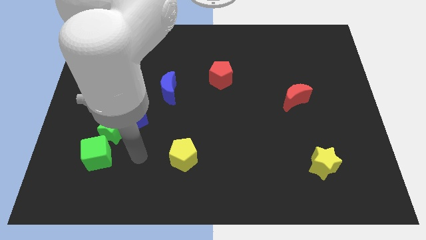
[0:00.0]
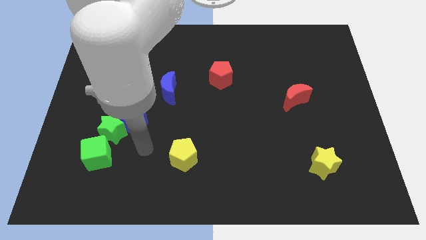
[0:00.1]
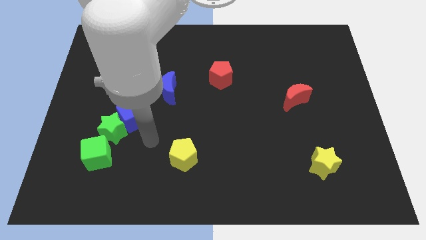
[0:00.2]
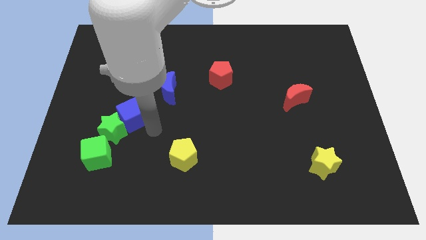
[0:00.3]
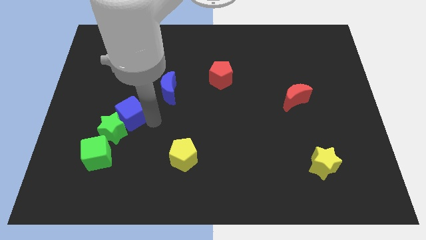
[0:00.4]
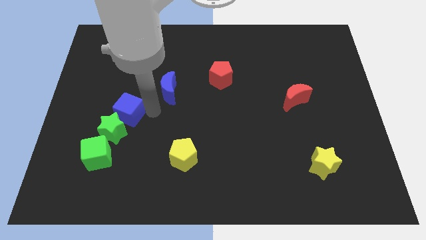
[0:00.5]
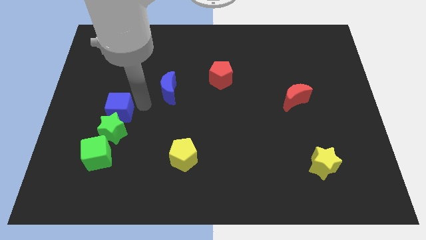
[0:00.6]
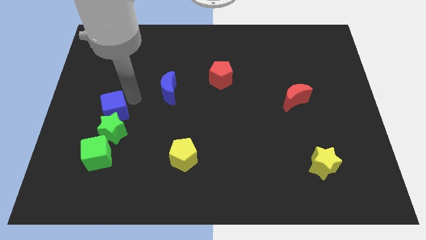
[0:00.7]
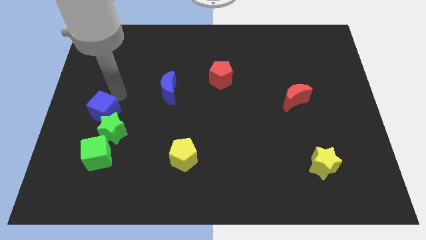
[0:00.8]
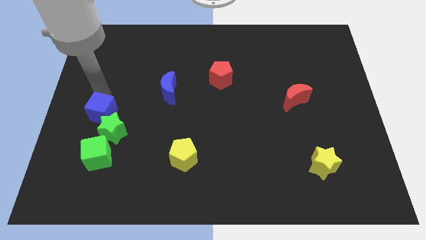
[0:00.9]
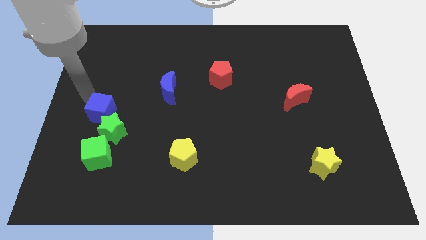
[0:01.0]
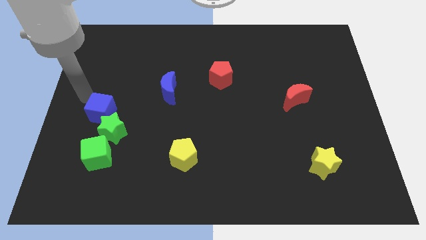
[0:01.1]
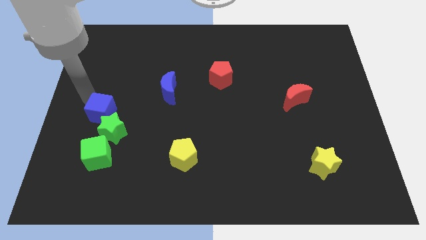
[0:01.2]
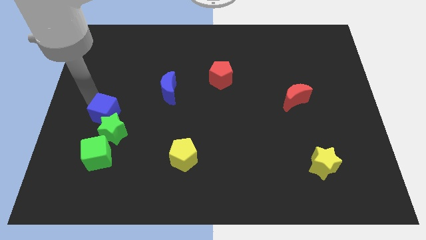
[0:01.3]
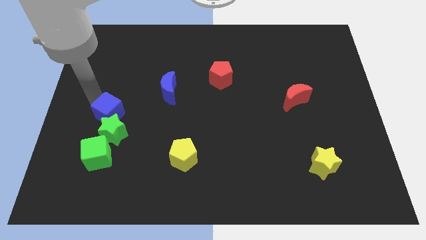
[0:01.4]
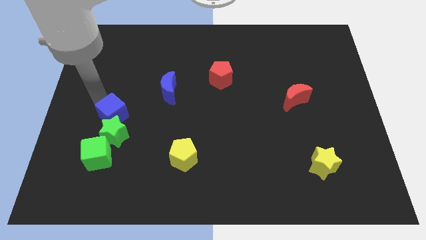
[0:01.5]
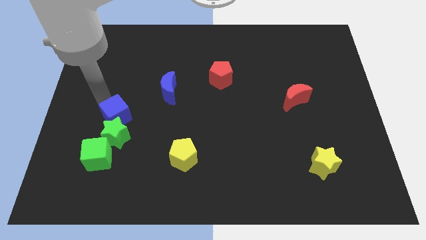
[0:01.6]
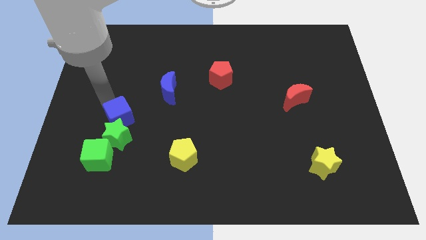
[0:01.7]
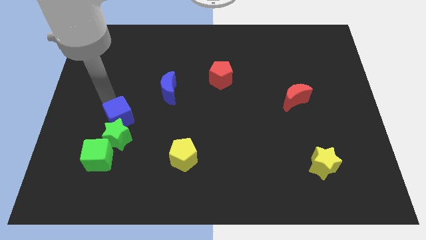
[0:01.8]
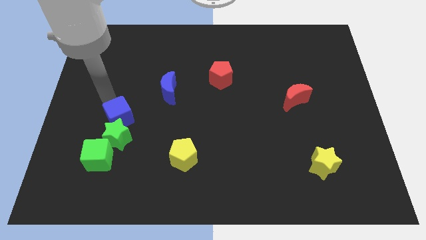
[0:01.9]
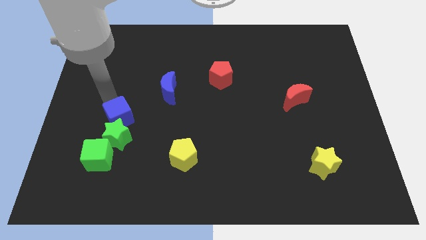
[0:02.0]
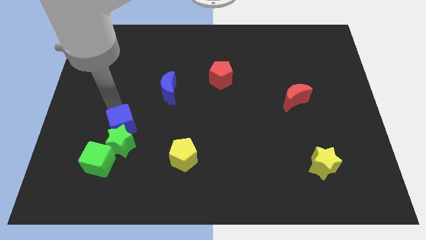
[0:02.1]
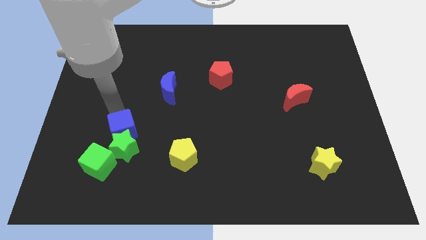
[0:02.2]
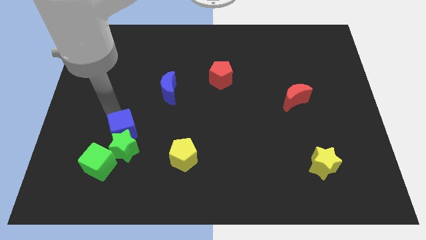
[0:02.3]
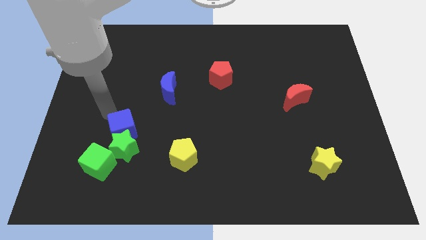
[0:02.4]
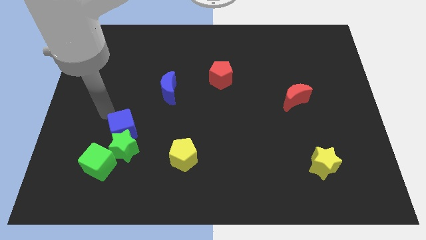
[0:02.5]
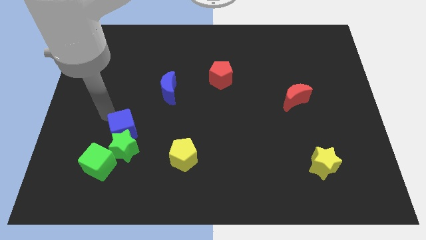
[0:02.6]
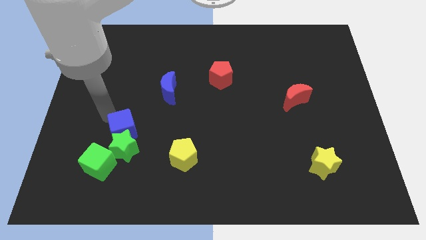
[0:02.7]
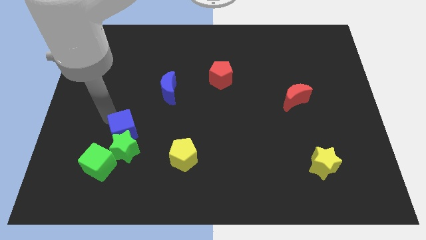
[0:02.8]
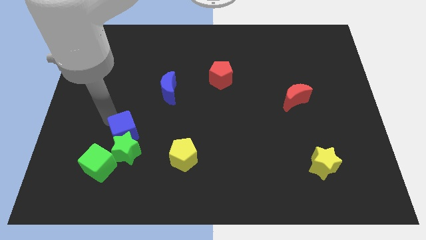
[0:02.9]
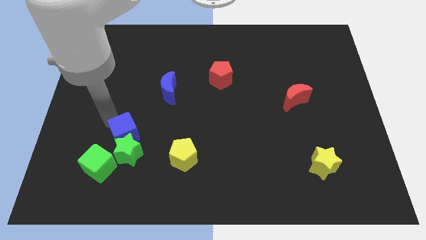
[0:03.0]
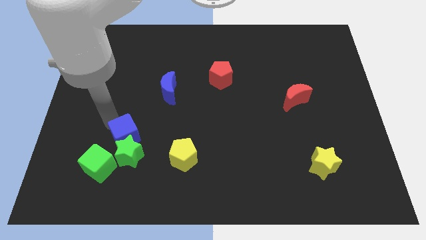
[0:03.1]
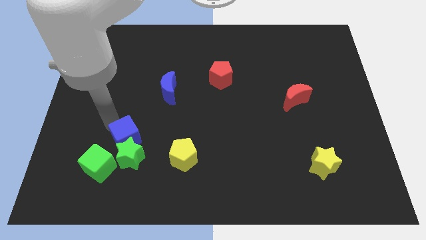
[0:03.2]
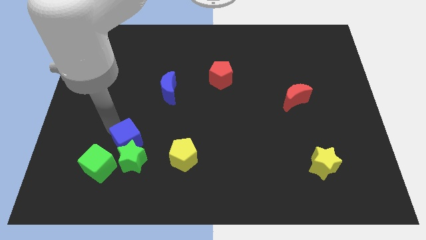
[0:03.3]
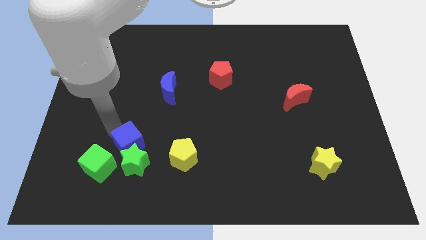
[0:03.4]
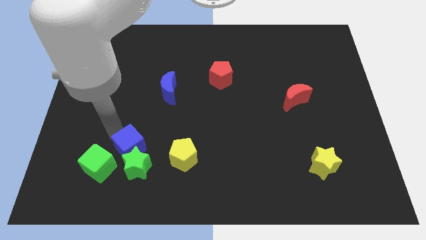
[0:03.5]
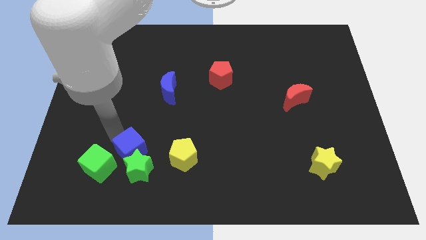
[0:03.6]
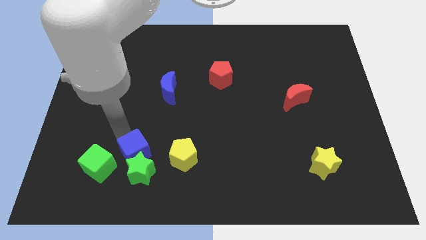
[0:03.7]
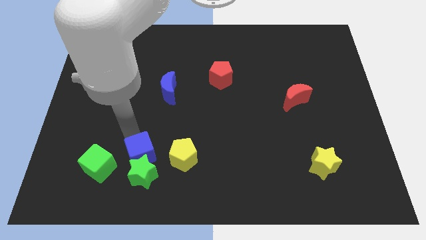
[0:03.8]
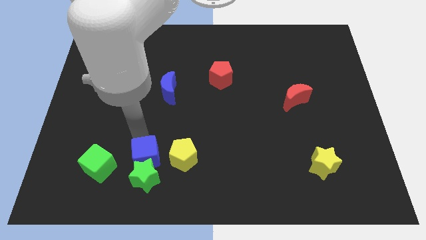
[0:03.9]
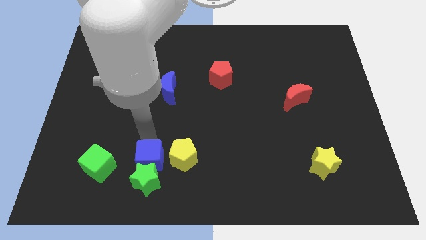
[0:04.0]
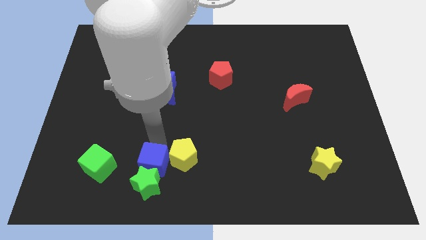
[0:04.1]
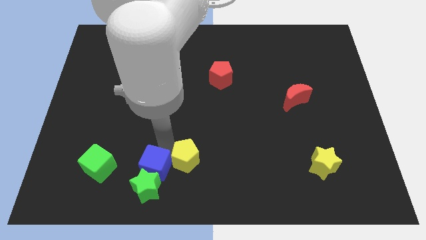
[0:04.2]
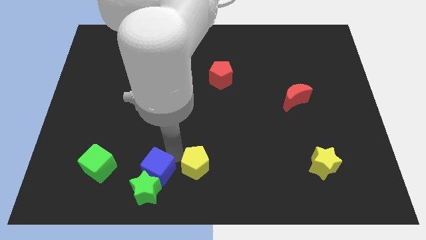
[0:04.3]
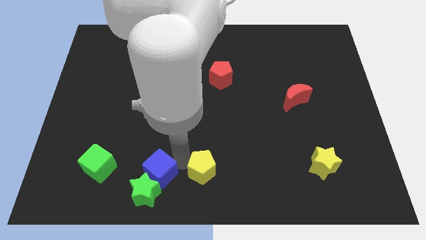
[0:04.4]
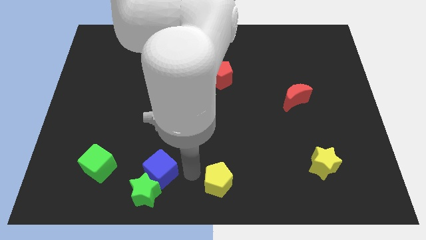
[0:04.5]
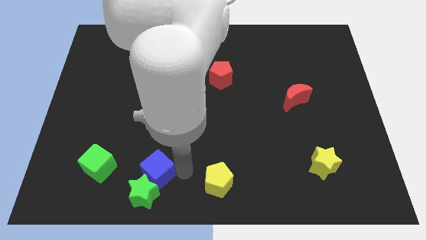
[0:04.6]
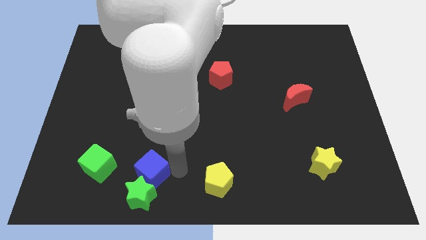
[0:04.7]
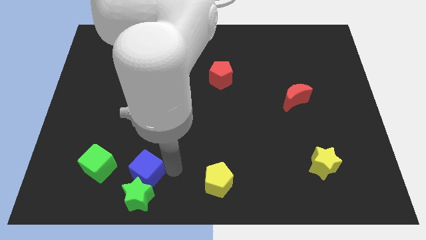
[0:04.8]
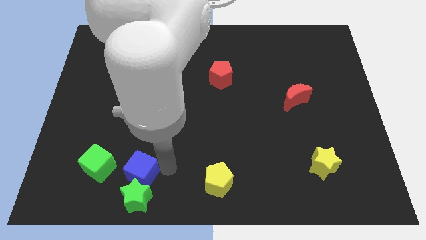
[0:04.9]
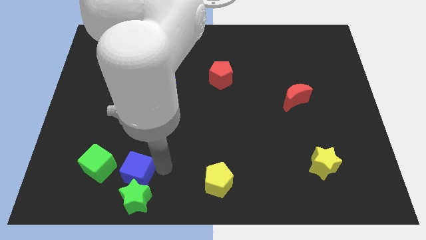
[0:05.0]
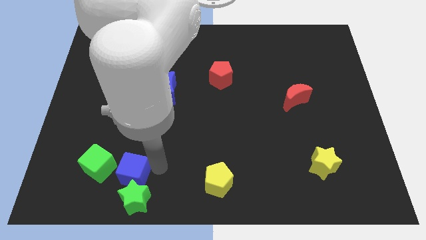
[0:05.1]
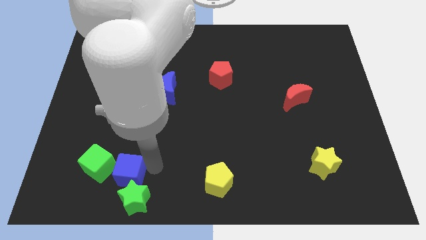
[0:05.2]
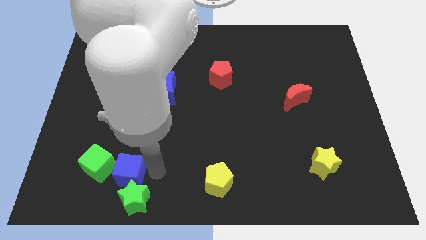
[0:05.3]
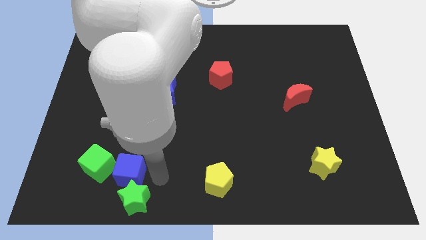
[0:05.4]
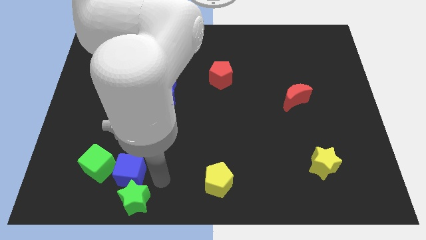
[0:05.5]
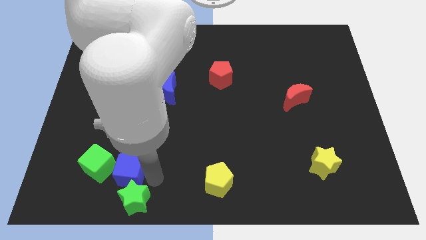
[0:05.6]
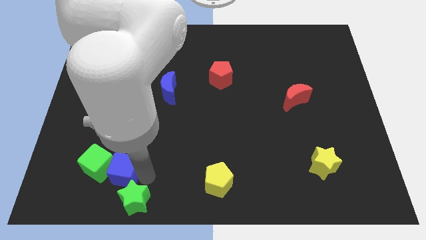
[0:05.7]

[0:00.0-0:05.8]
move the blue cube next to the green cube

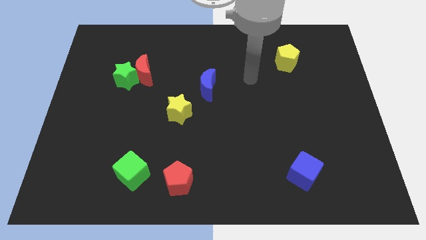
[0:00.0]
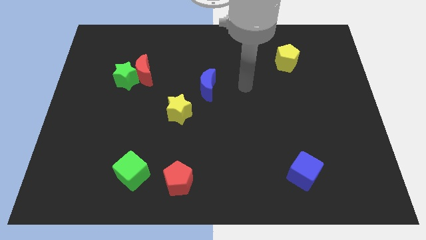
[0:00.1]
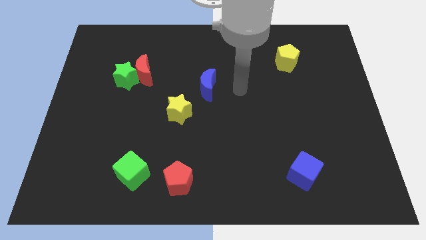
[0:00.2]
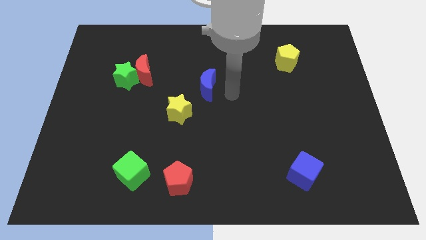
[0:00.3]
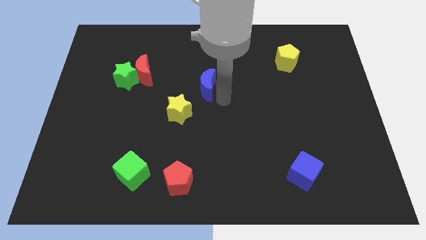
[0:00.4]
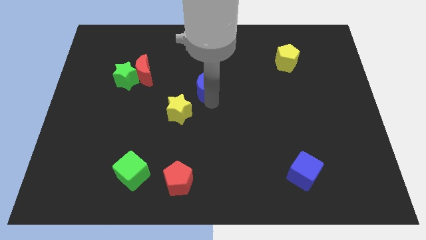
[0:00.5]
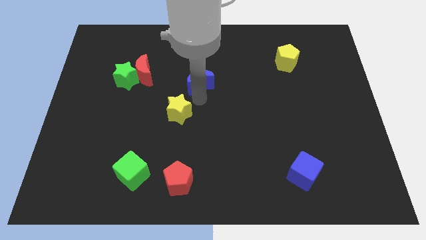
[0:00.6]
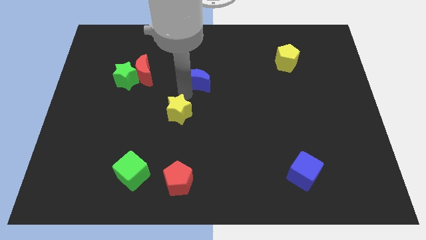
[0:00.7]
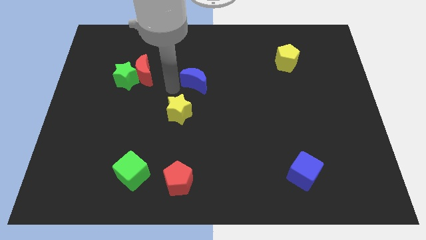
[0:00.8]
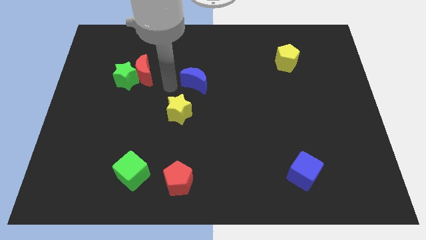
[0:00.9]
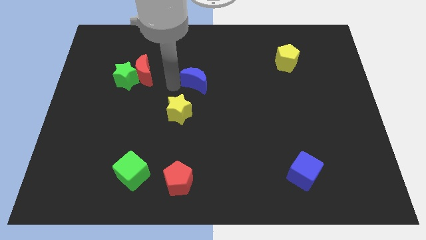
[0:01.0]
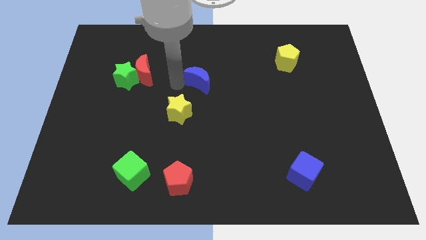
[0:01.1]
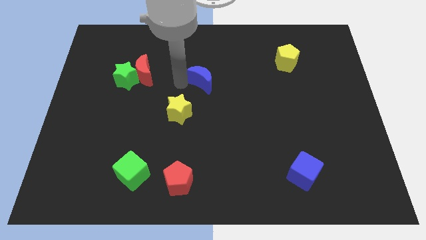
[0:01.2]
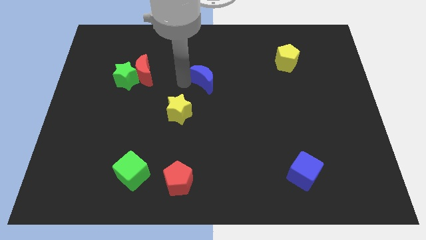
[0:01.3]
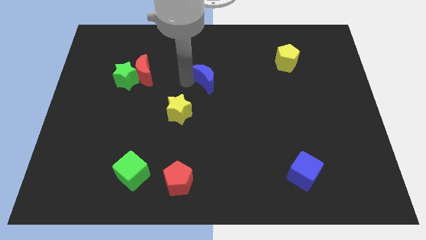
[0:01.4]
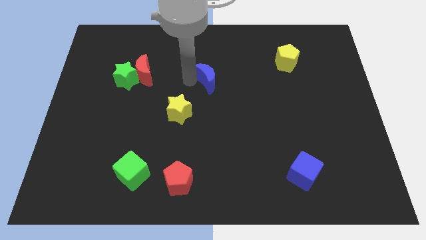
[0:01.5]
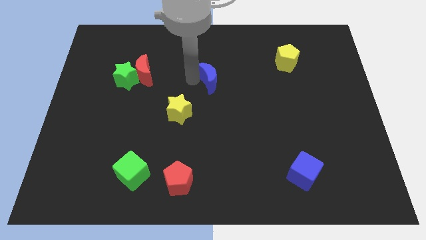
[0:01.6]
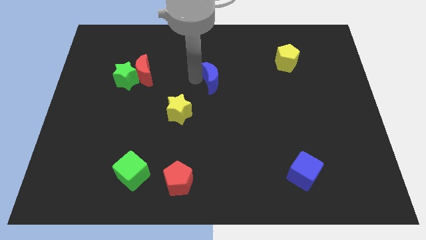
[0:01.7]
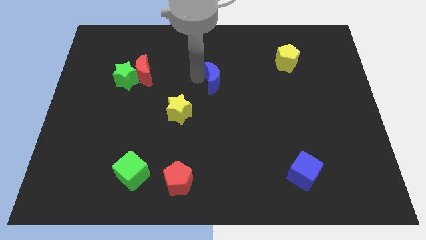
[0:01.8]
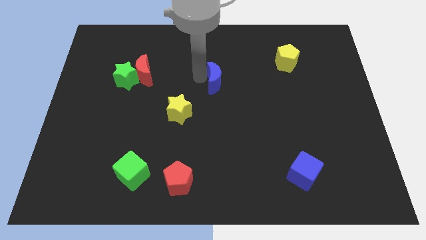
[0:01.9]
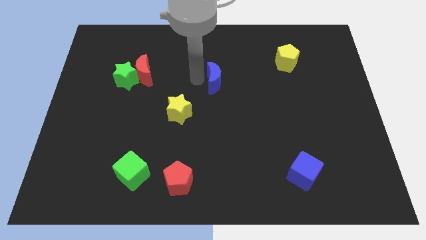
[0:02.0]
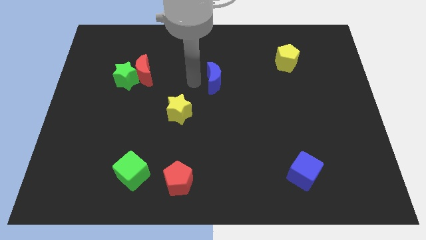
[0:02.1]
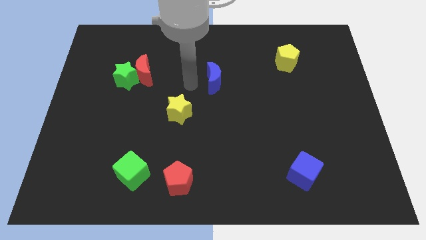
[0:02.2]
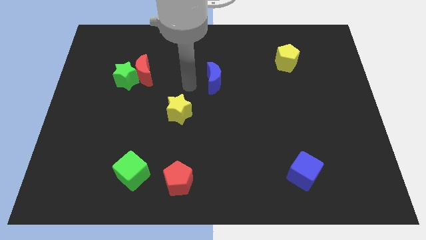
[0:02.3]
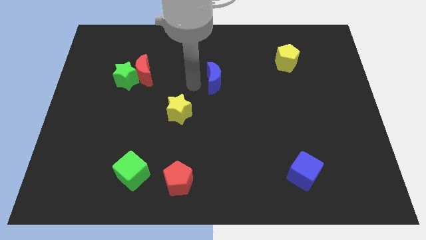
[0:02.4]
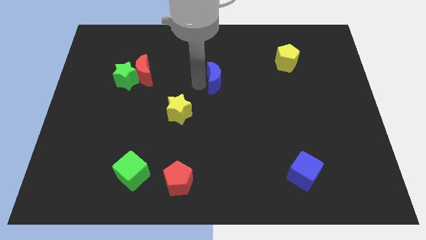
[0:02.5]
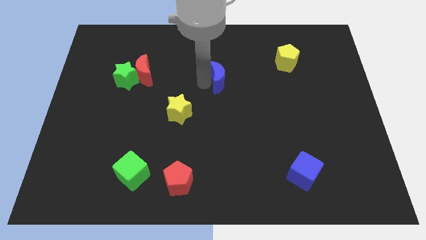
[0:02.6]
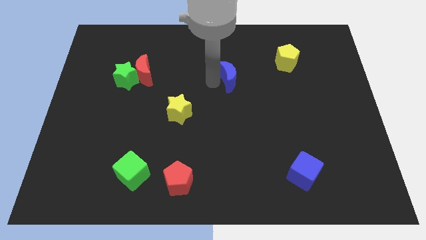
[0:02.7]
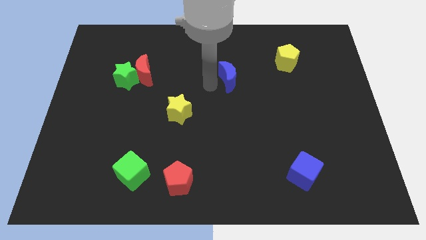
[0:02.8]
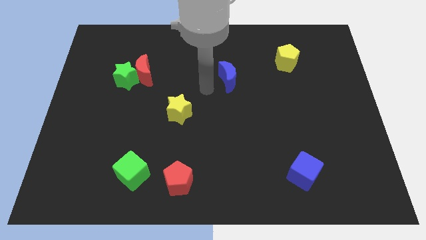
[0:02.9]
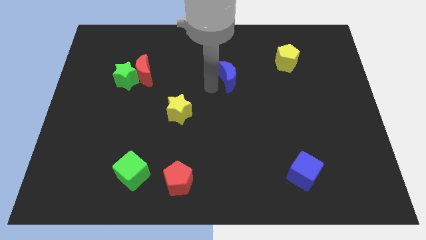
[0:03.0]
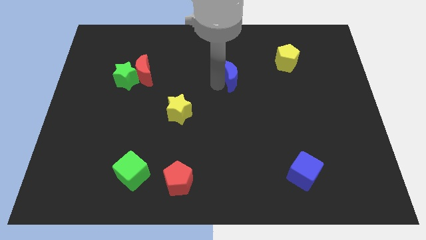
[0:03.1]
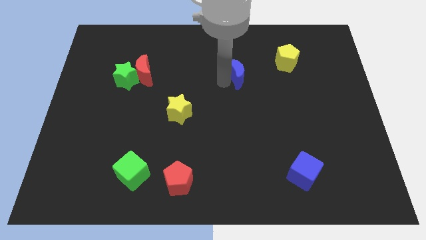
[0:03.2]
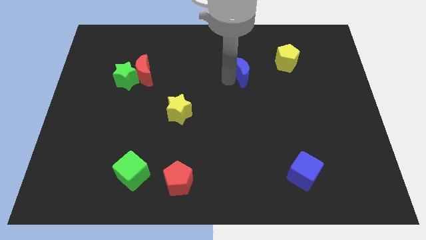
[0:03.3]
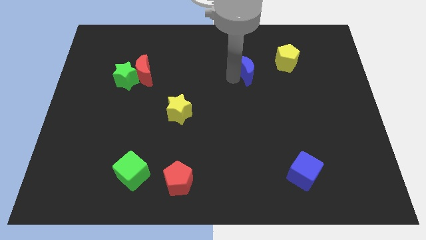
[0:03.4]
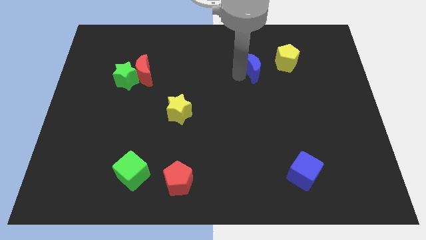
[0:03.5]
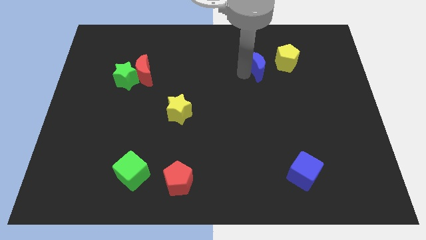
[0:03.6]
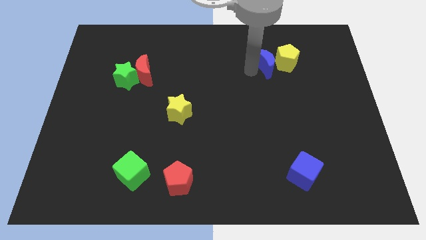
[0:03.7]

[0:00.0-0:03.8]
put the blue moon next to the yellow pentagon
